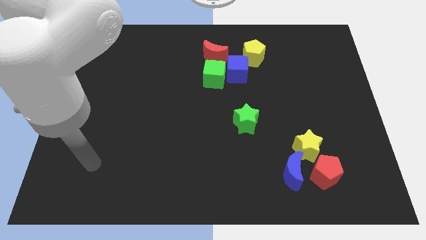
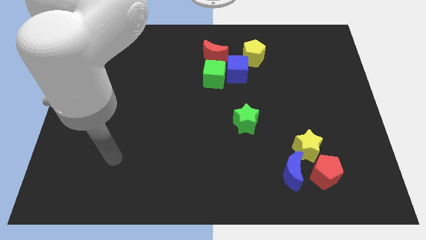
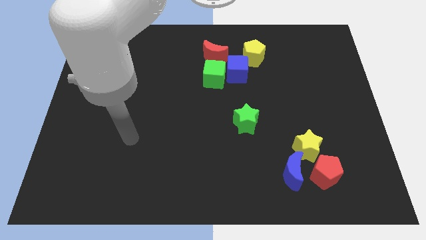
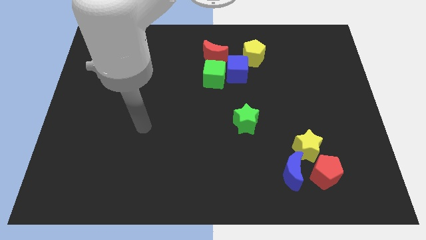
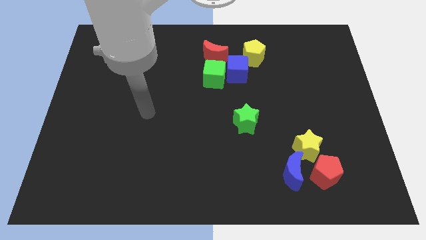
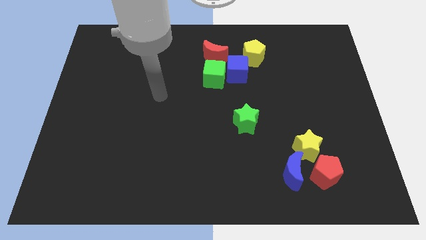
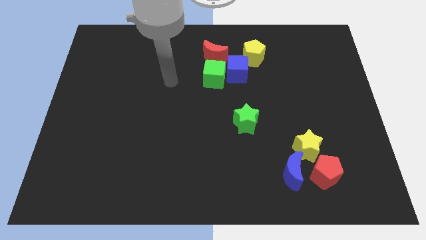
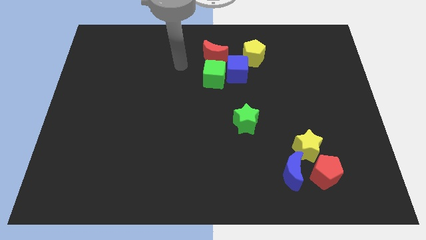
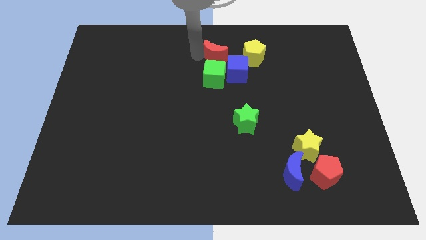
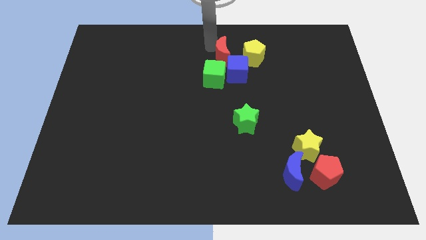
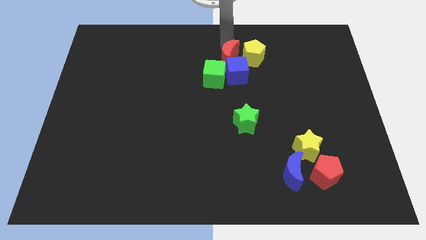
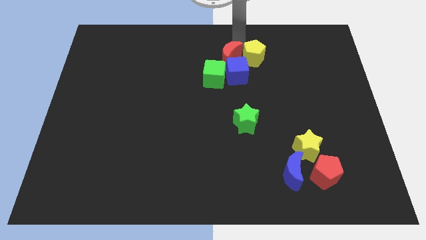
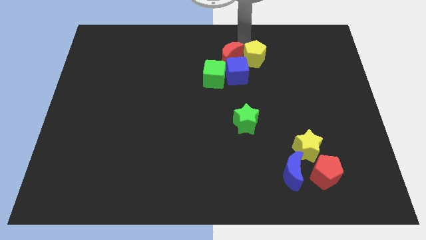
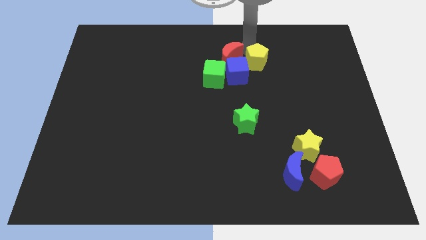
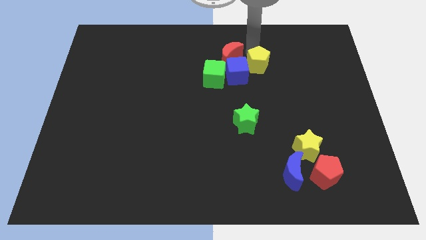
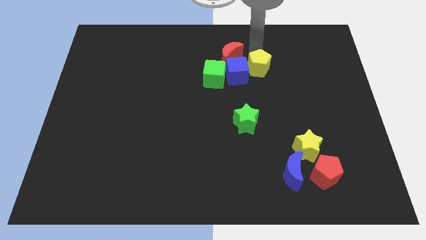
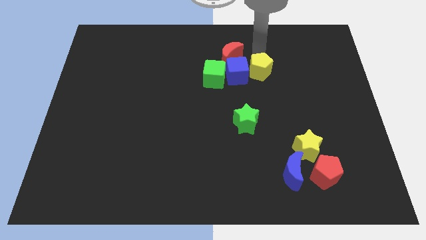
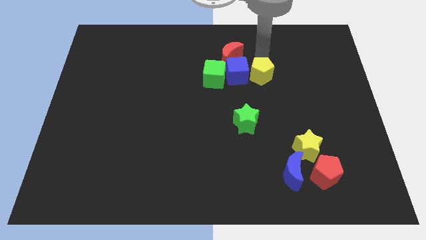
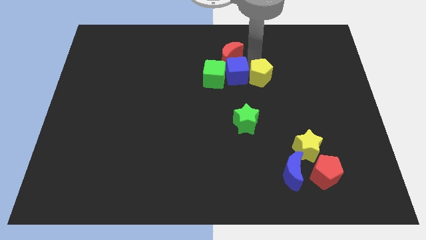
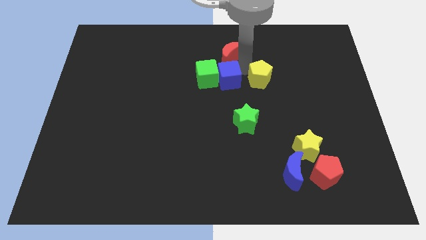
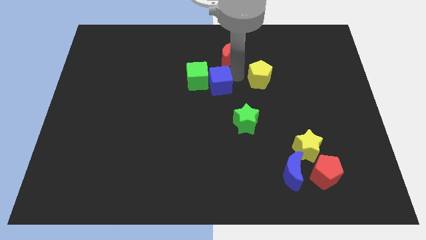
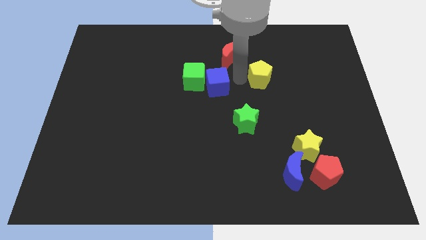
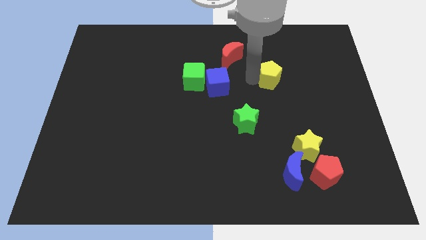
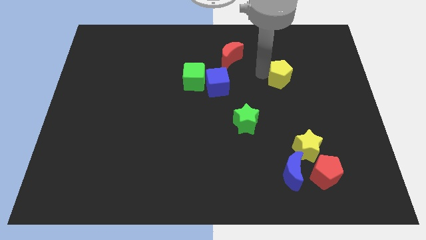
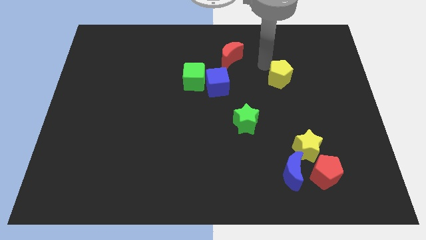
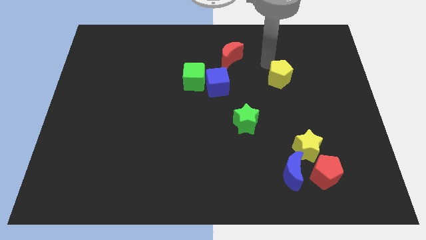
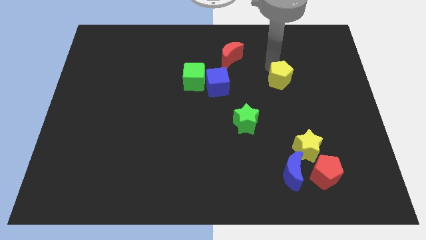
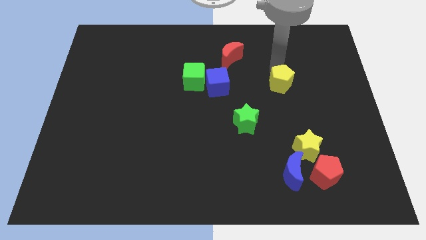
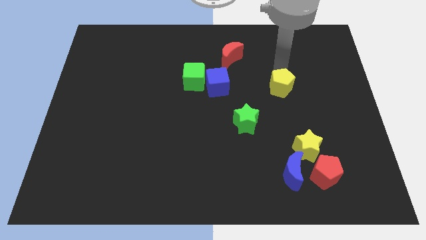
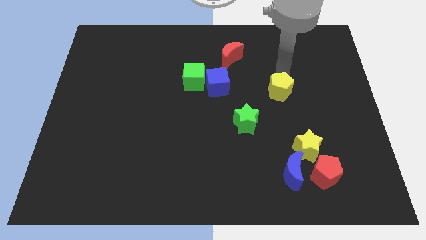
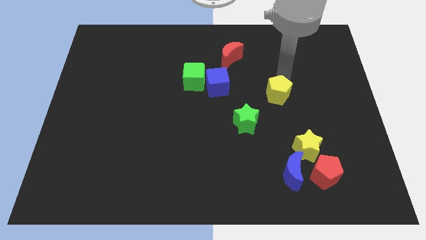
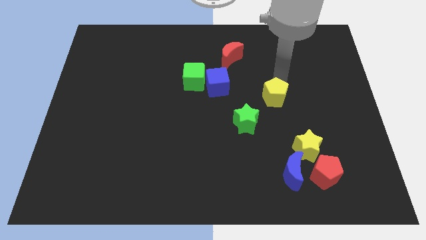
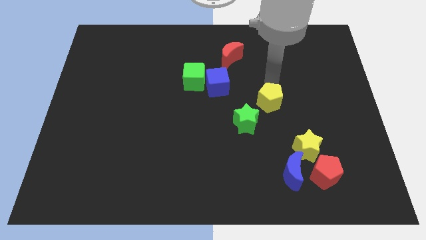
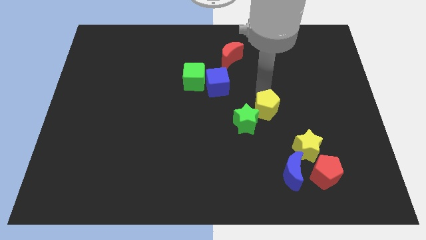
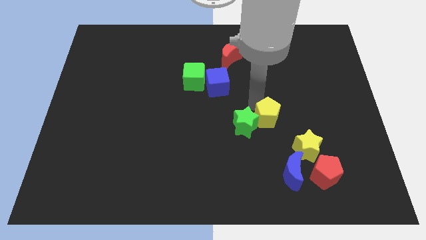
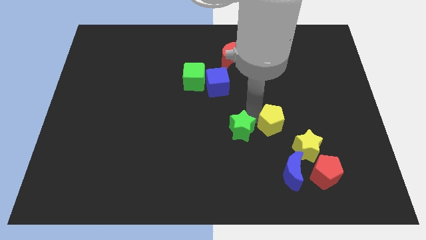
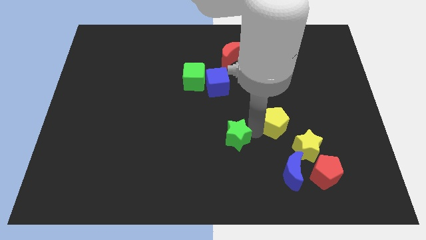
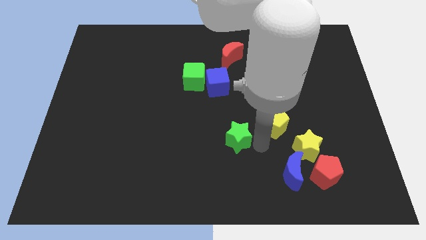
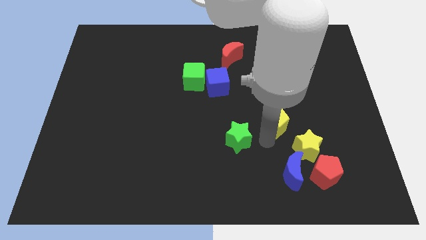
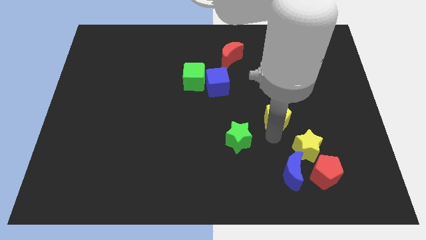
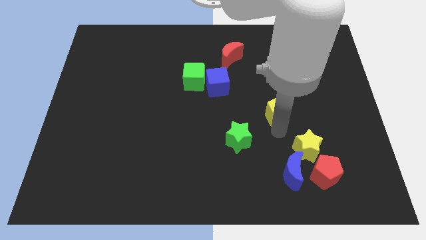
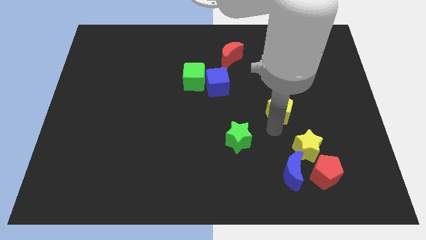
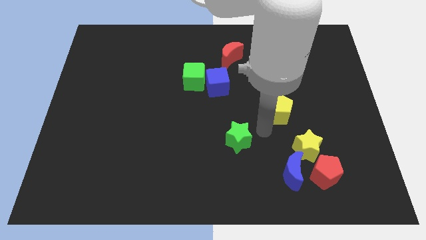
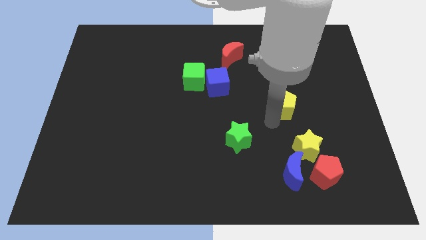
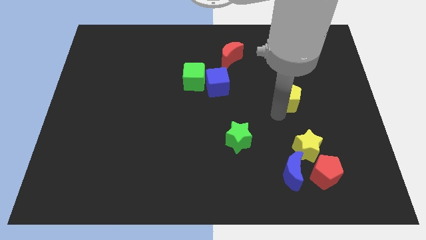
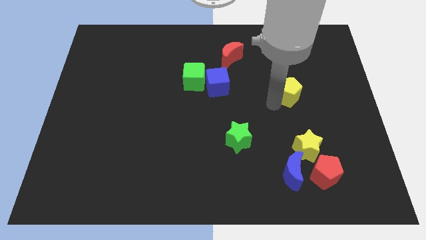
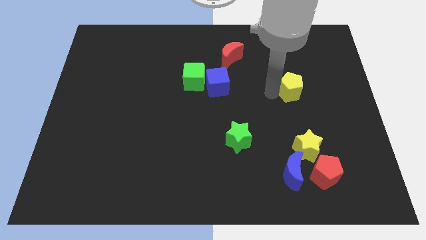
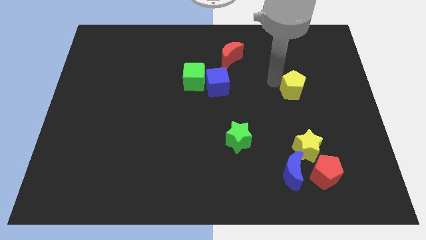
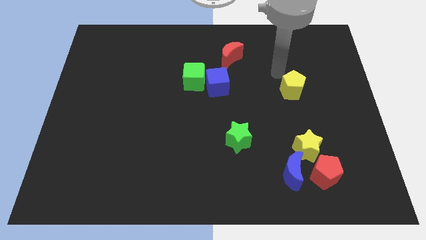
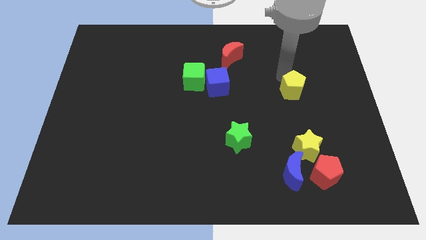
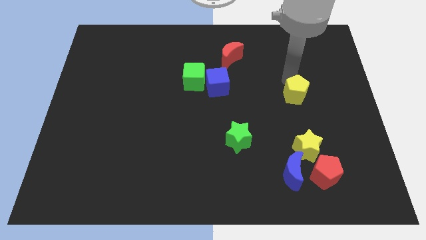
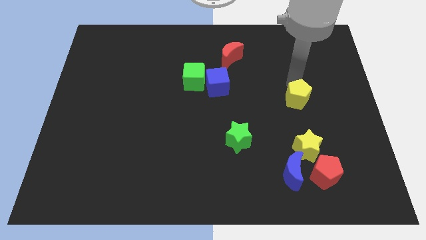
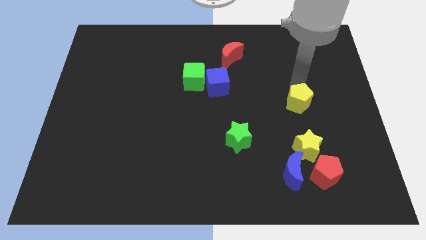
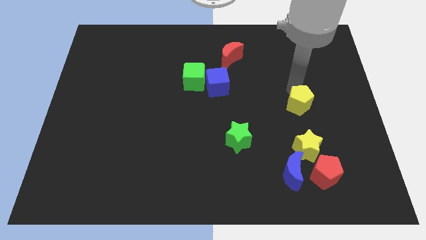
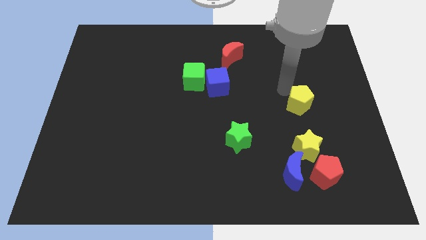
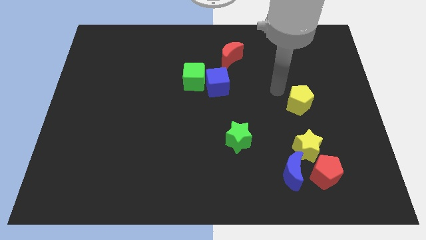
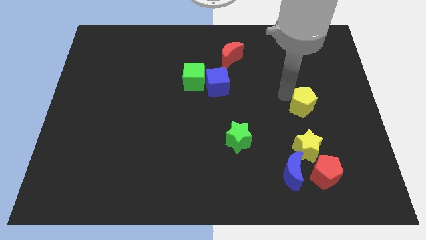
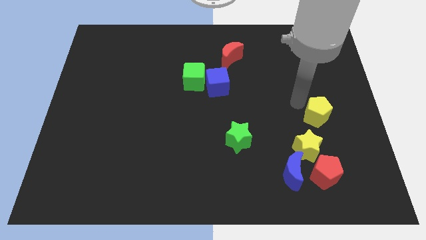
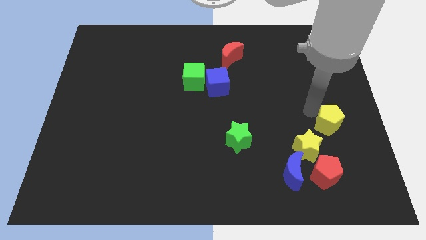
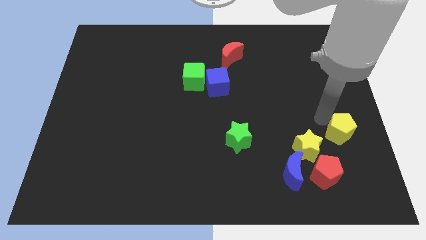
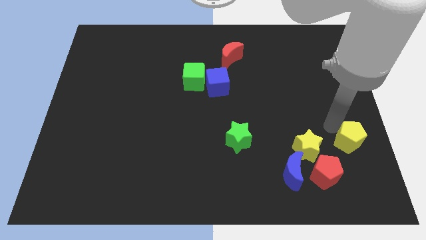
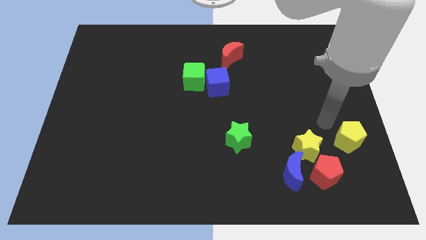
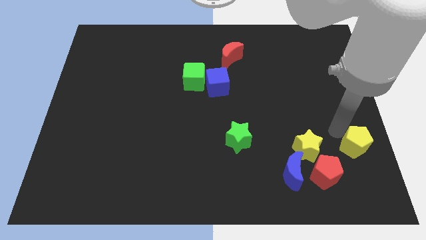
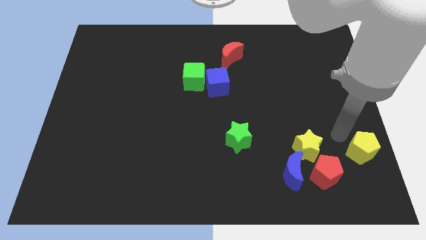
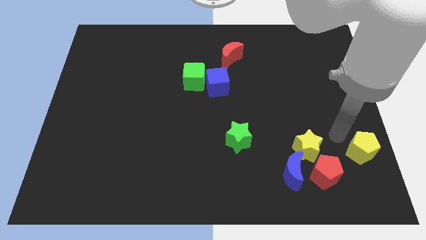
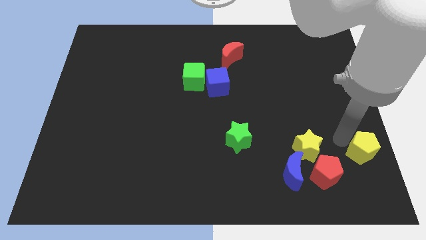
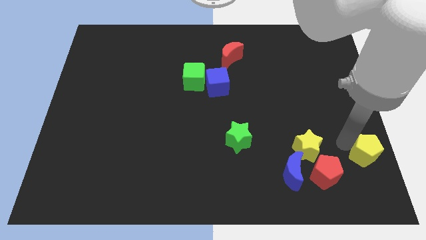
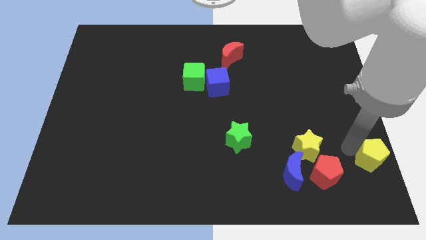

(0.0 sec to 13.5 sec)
put the yellow pentagon to the bottom right corner

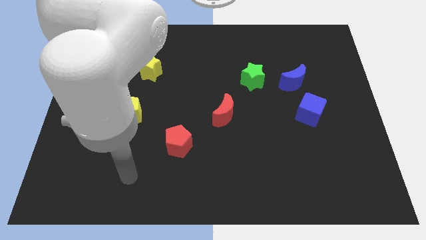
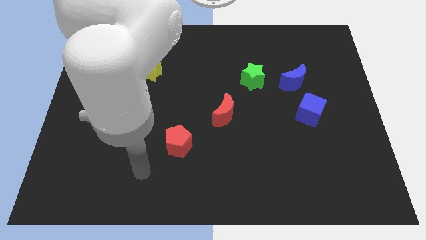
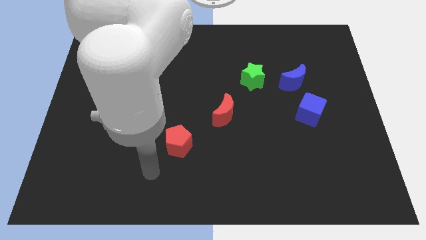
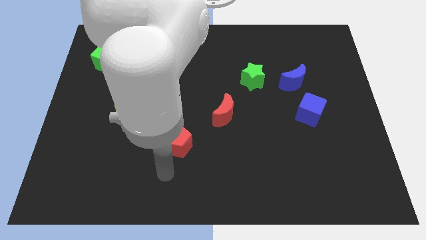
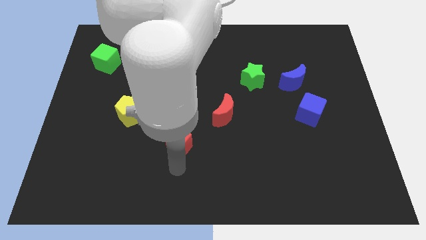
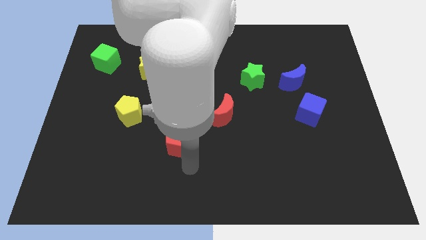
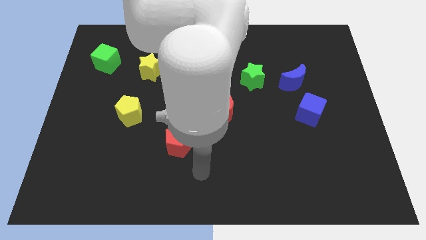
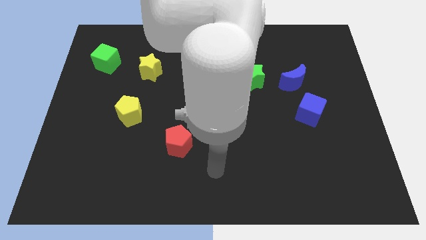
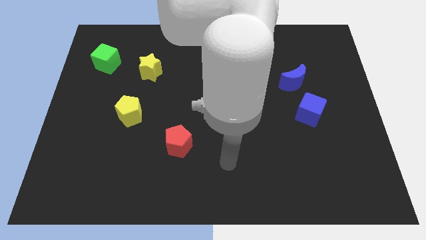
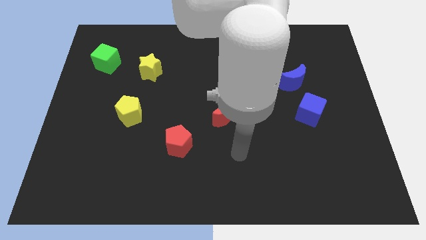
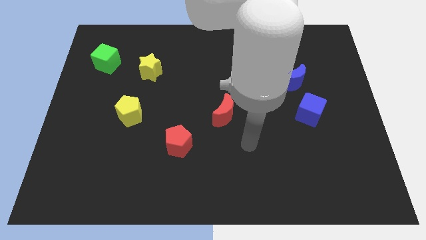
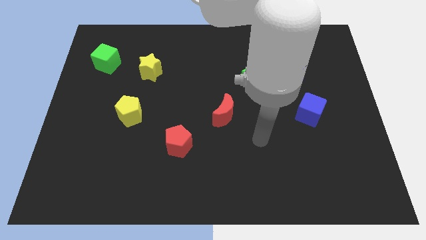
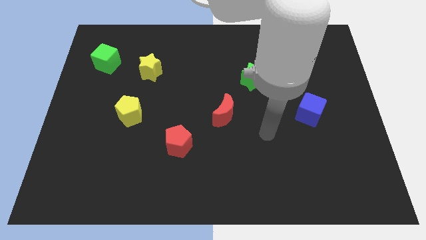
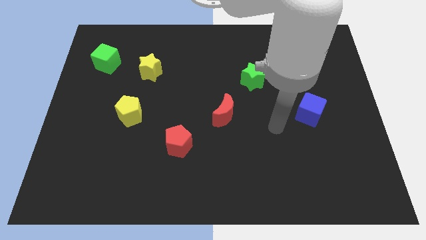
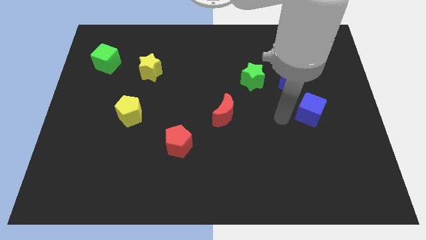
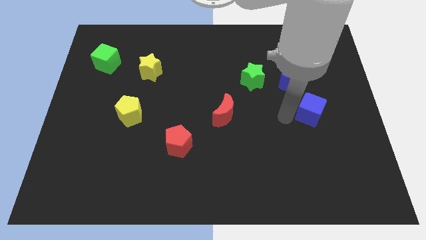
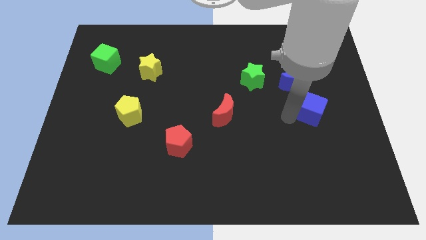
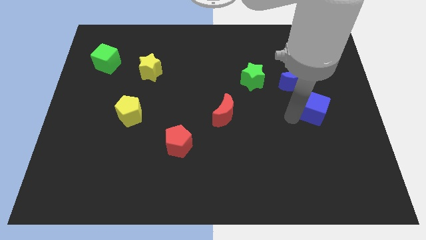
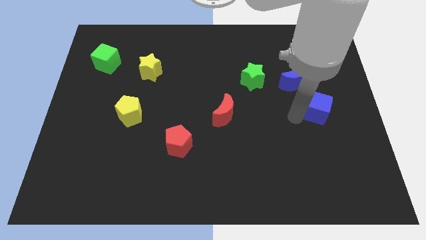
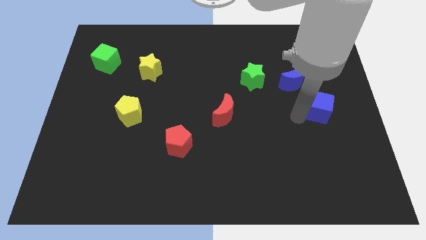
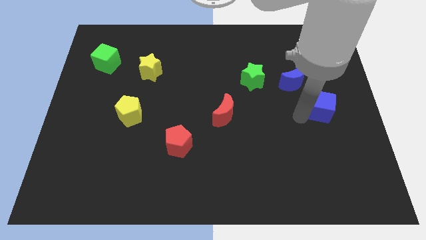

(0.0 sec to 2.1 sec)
slide the blue cube to the center right
